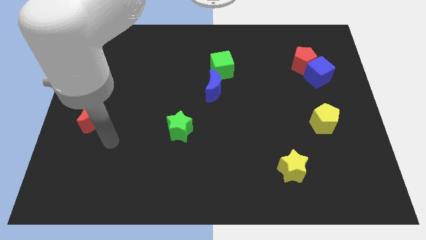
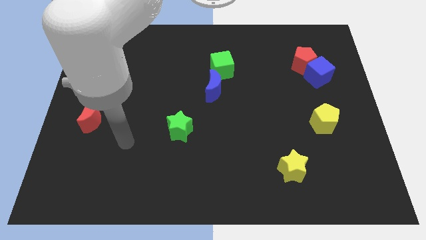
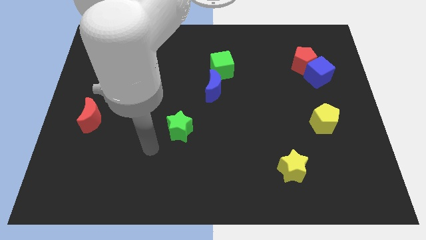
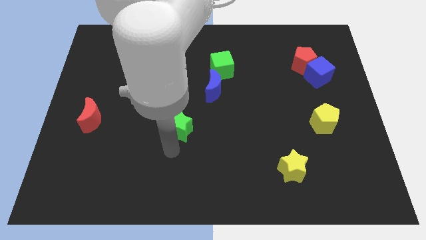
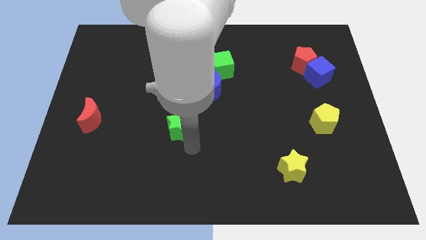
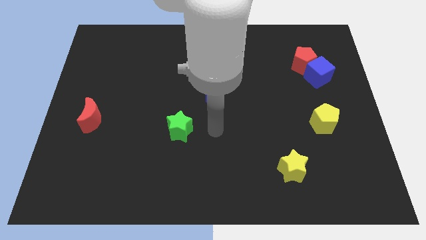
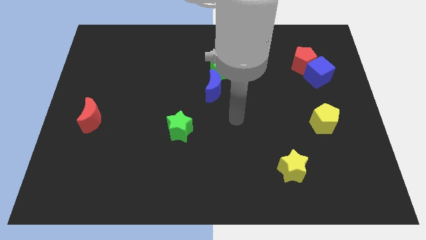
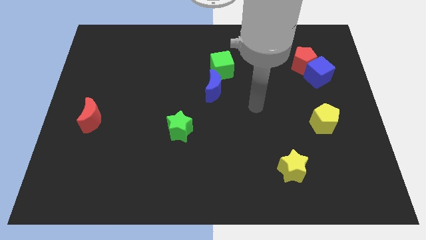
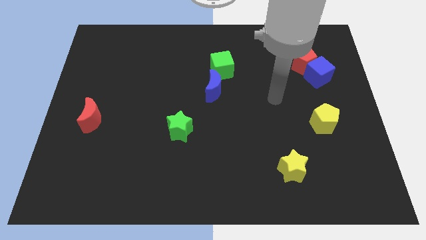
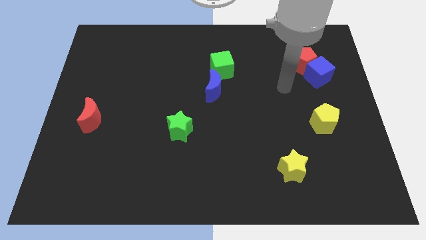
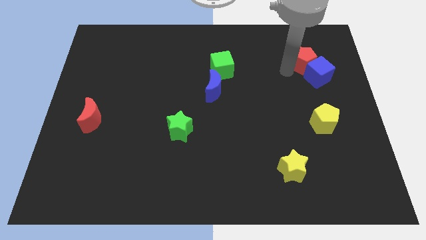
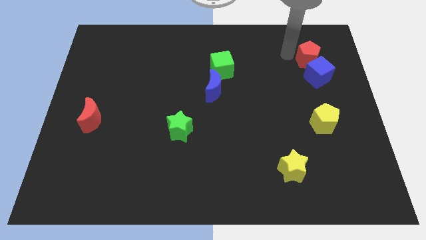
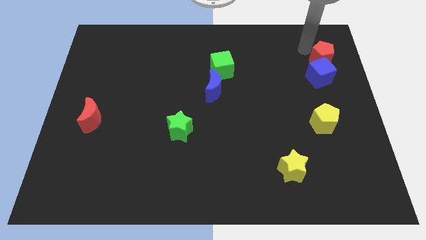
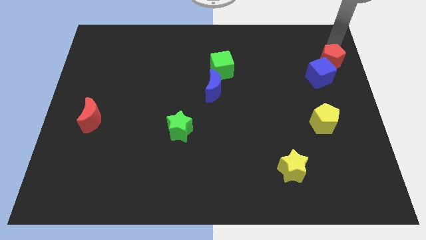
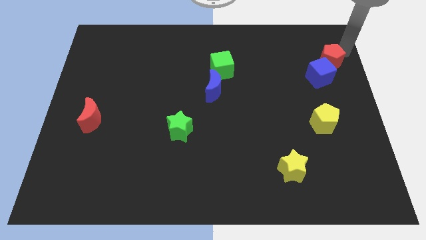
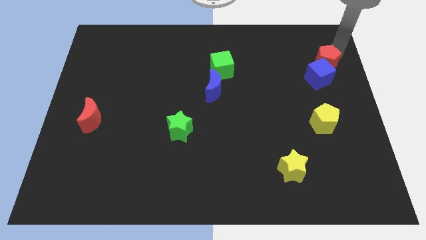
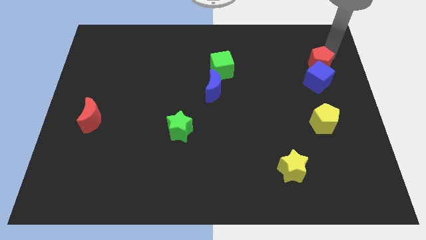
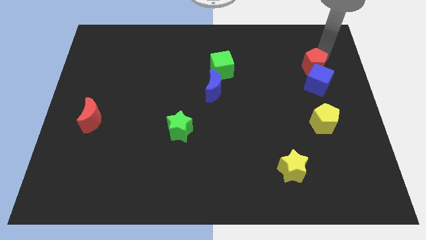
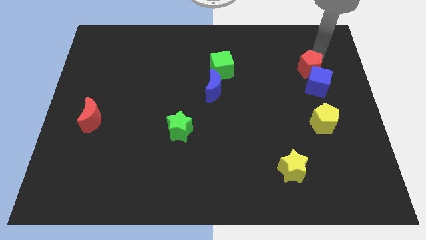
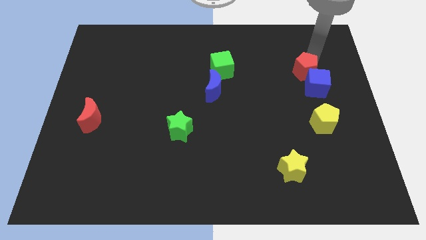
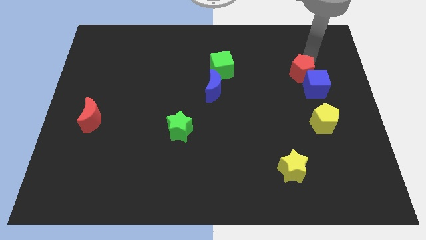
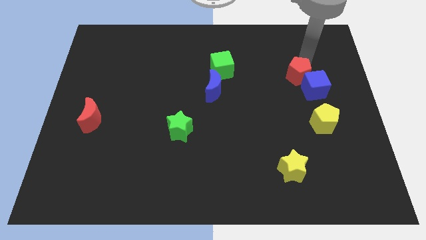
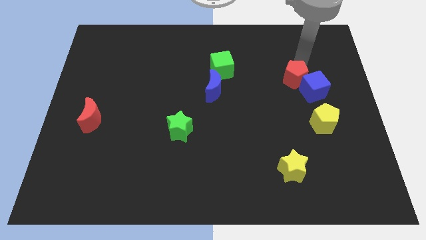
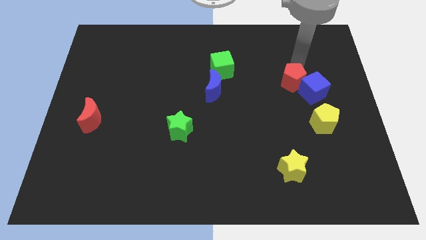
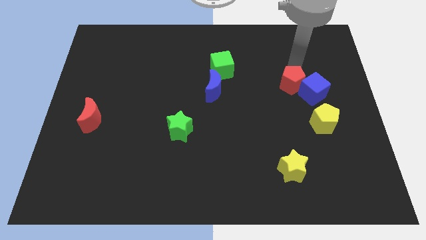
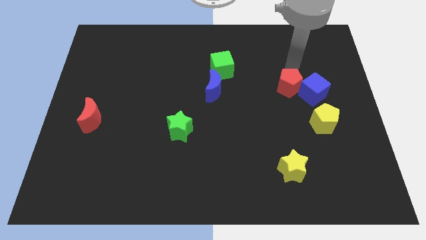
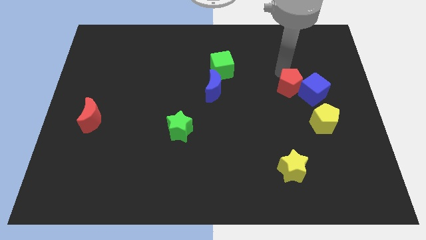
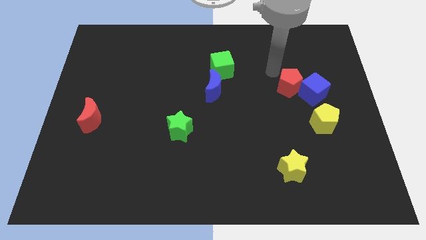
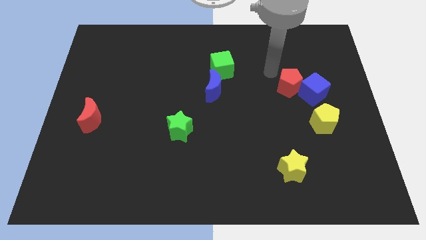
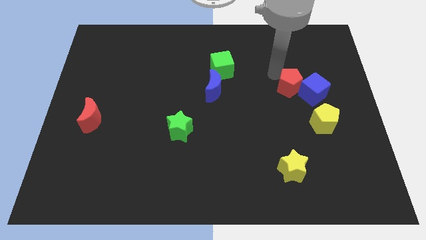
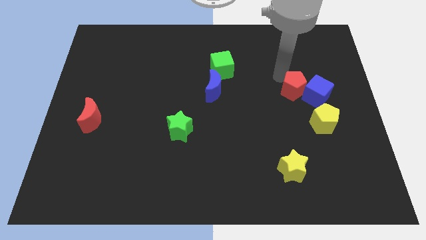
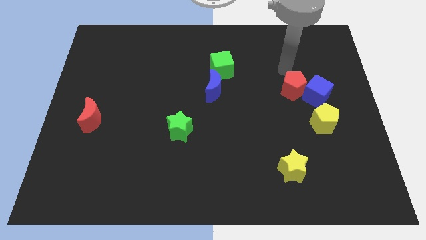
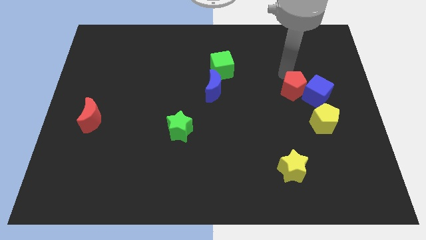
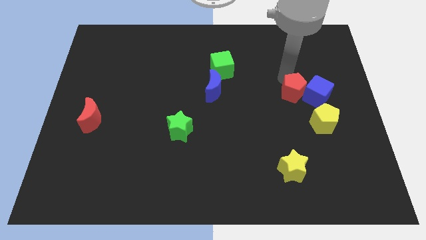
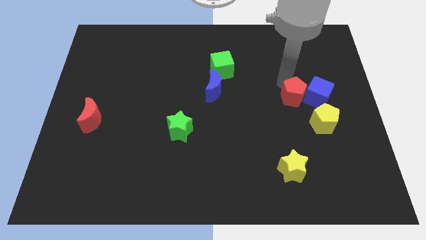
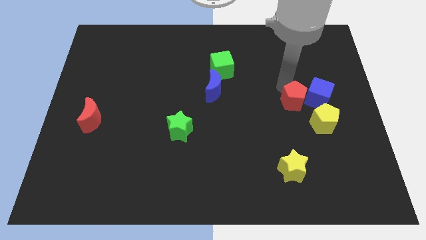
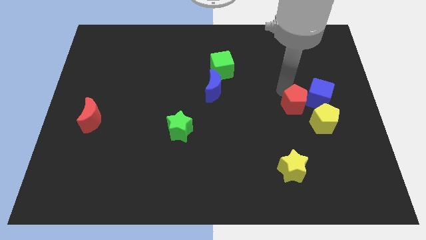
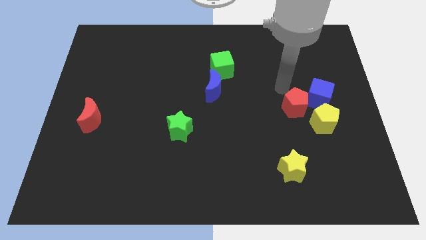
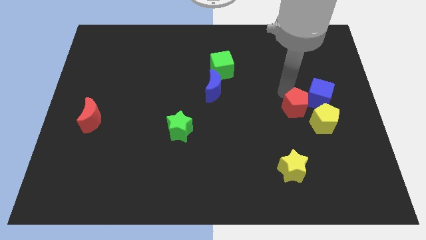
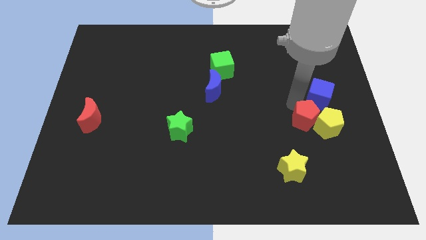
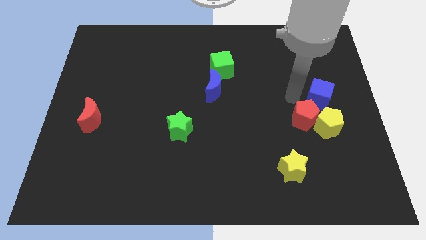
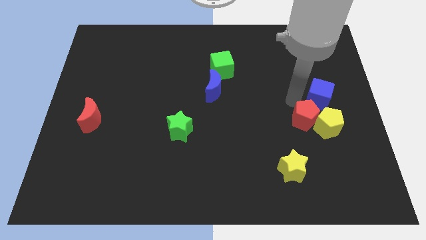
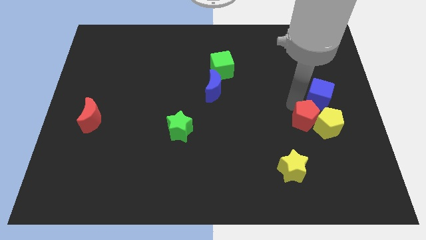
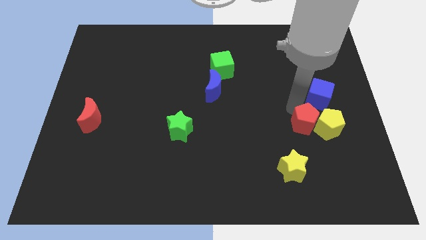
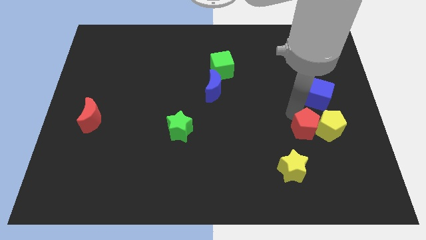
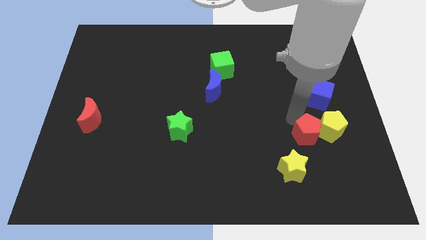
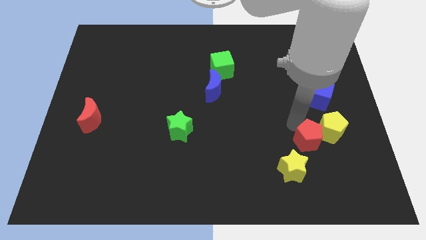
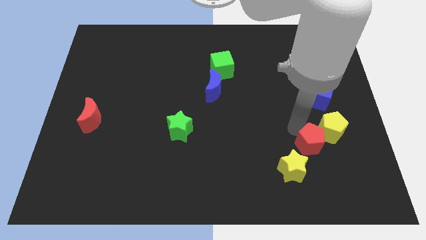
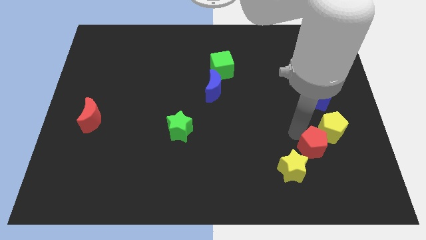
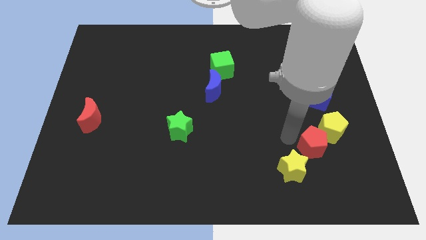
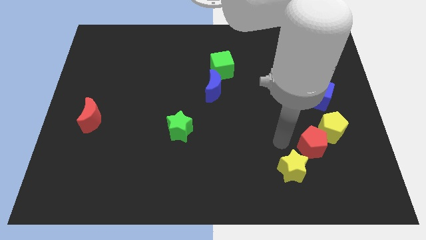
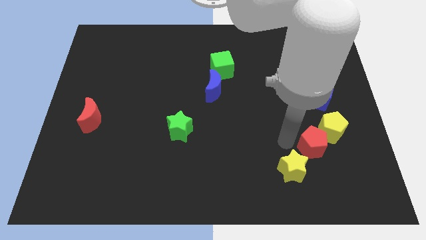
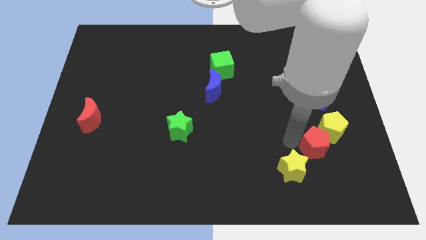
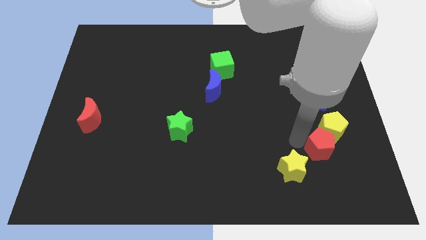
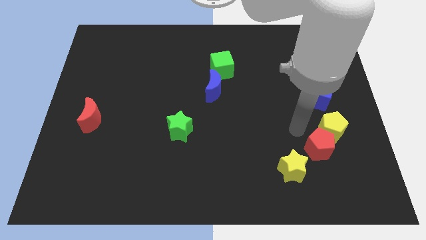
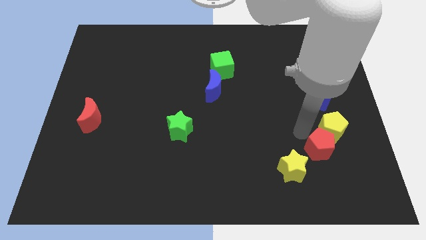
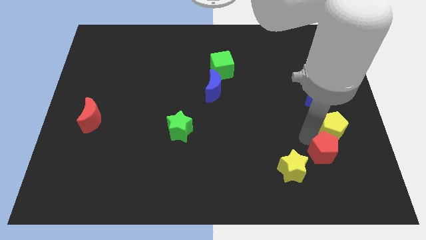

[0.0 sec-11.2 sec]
push the red pentagon right of the yellow star
